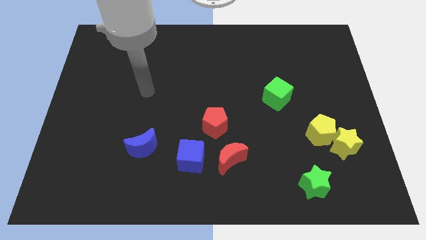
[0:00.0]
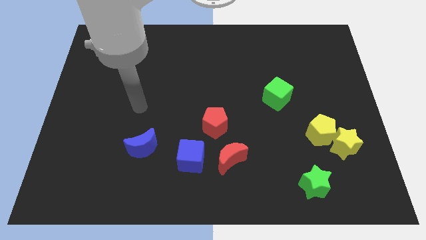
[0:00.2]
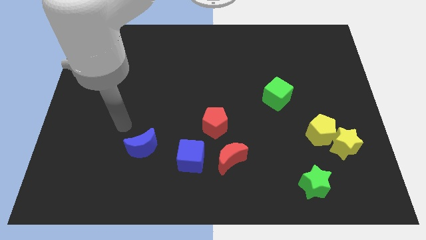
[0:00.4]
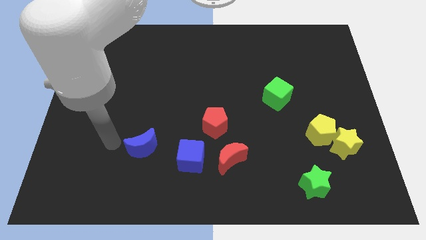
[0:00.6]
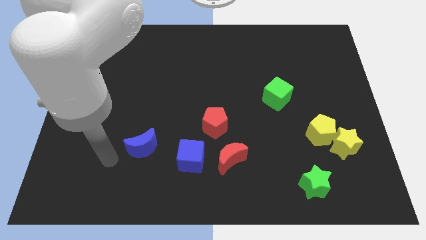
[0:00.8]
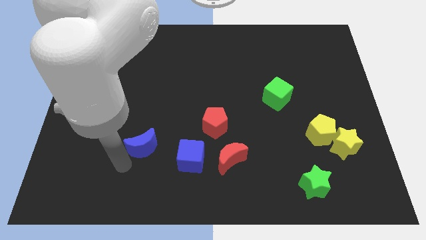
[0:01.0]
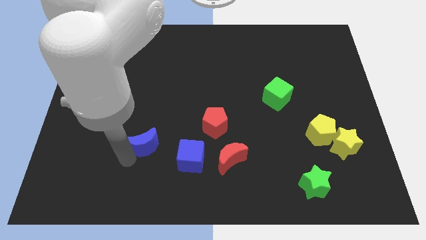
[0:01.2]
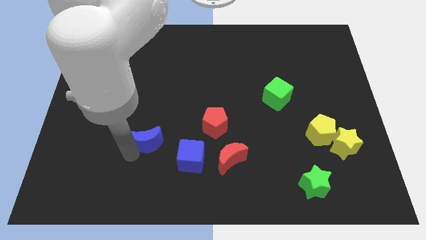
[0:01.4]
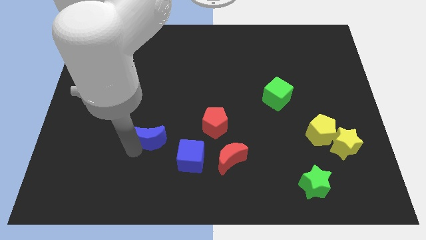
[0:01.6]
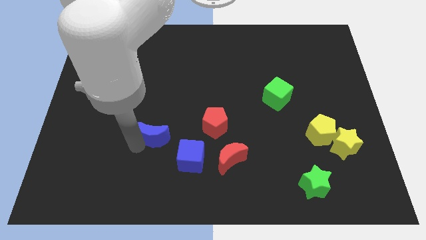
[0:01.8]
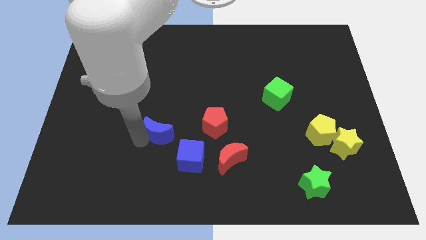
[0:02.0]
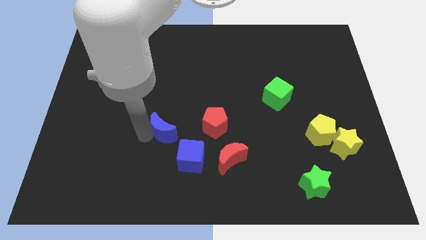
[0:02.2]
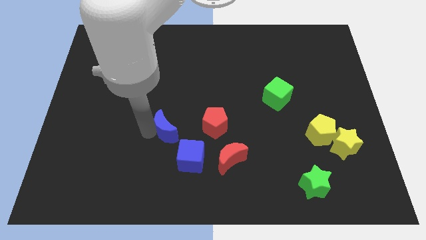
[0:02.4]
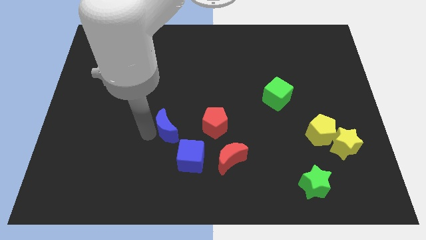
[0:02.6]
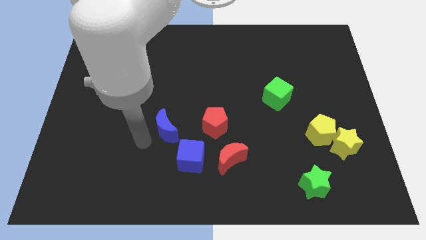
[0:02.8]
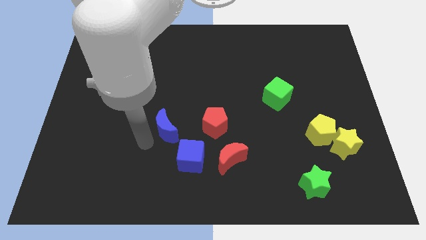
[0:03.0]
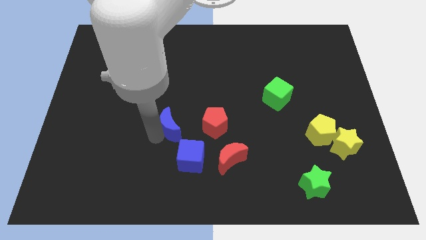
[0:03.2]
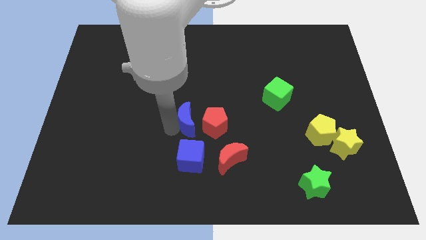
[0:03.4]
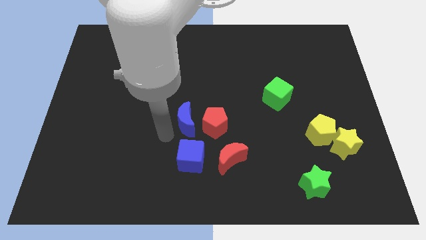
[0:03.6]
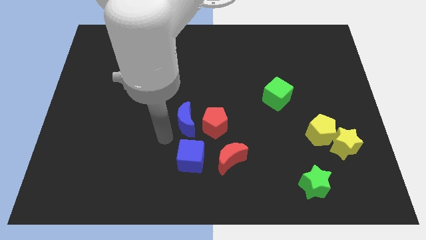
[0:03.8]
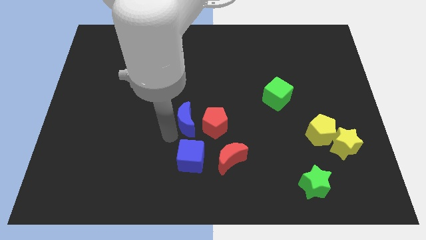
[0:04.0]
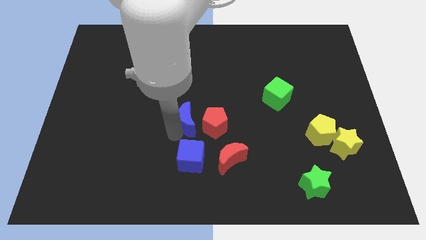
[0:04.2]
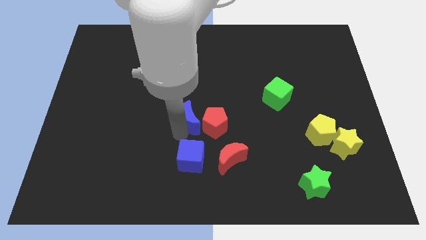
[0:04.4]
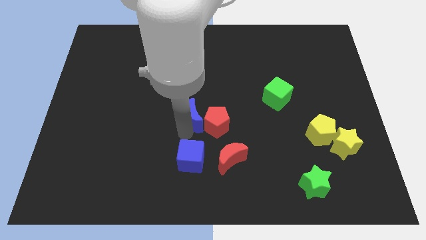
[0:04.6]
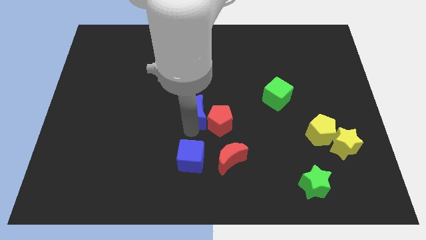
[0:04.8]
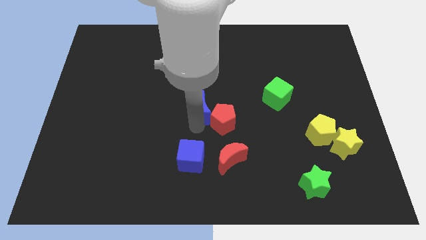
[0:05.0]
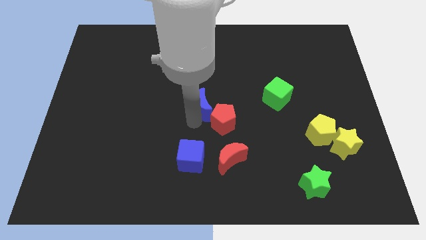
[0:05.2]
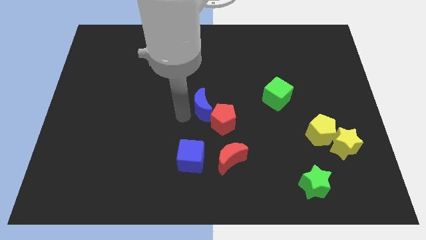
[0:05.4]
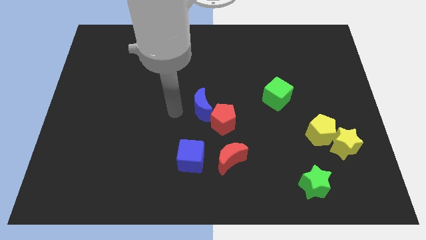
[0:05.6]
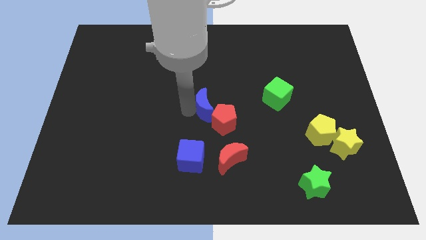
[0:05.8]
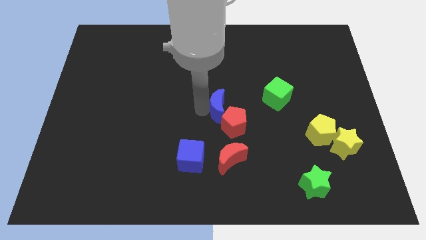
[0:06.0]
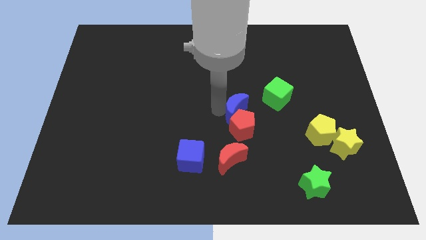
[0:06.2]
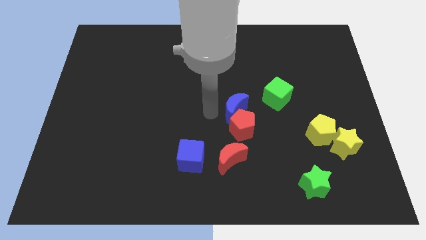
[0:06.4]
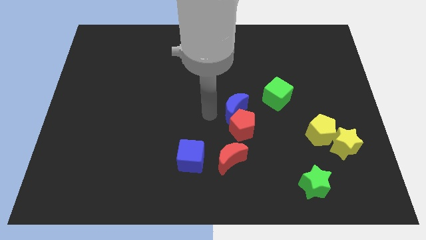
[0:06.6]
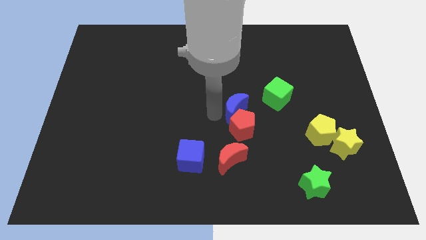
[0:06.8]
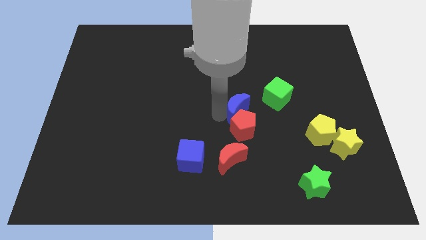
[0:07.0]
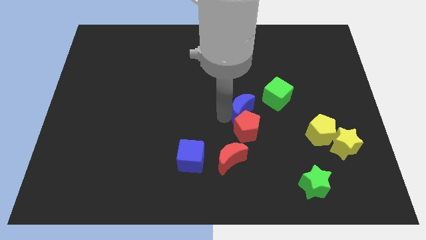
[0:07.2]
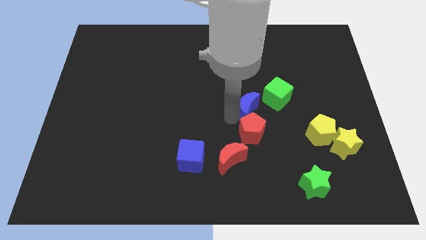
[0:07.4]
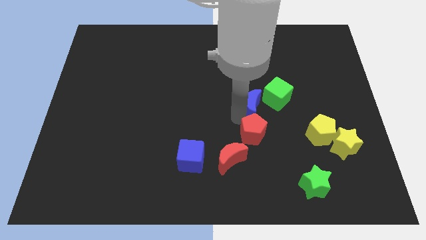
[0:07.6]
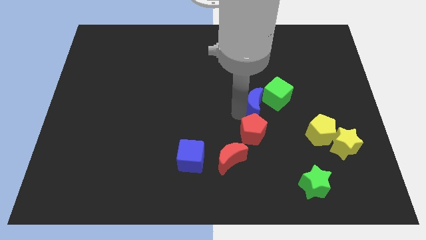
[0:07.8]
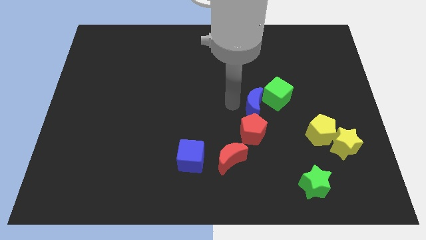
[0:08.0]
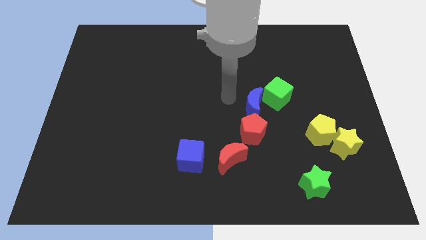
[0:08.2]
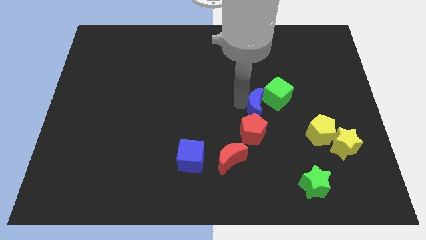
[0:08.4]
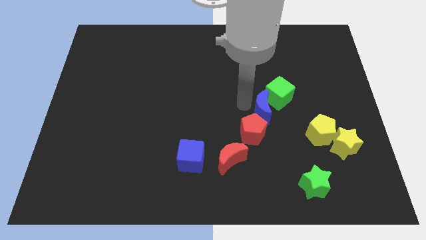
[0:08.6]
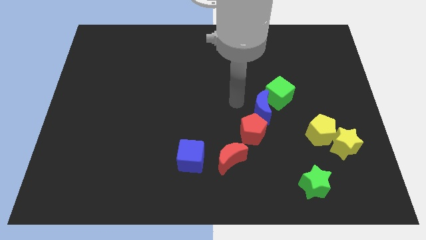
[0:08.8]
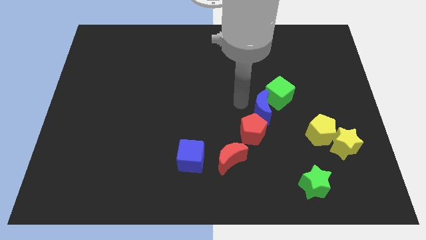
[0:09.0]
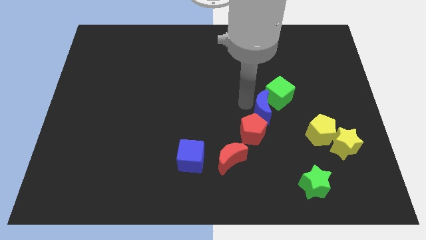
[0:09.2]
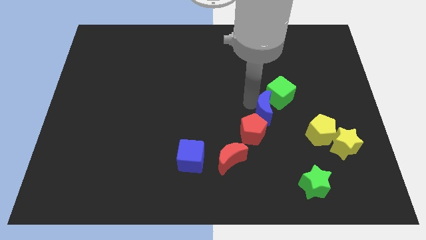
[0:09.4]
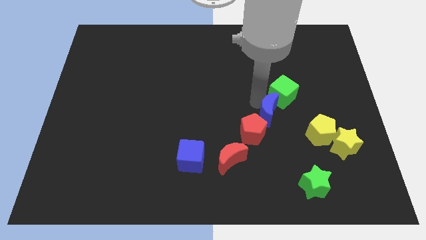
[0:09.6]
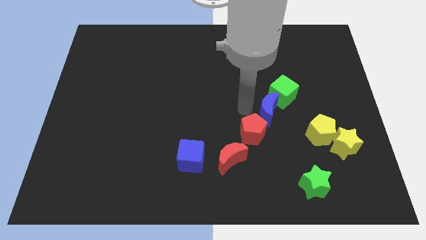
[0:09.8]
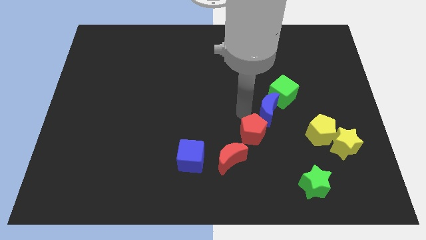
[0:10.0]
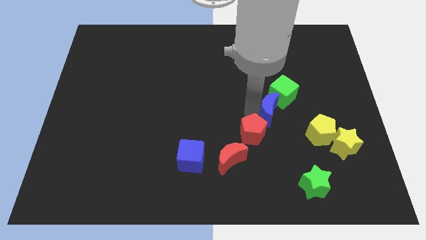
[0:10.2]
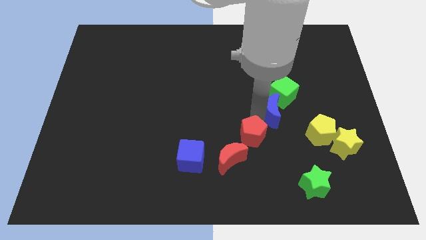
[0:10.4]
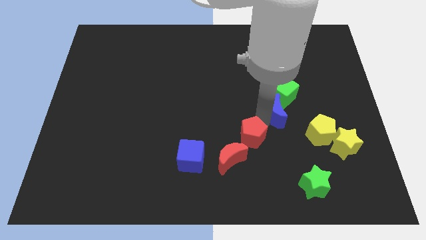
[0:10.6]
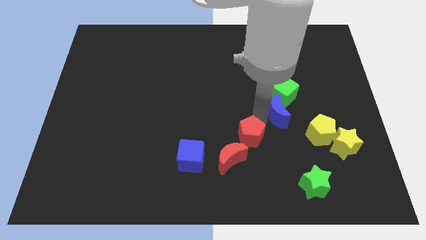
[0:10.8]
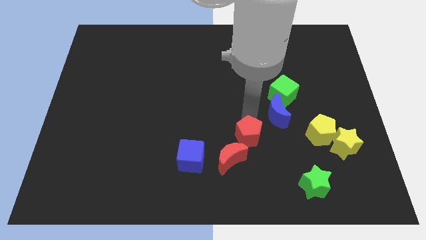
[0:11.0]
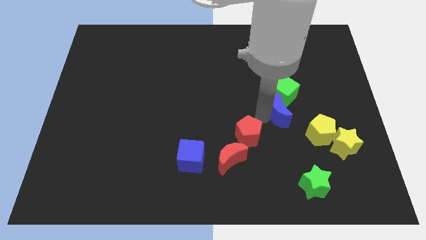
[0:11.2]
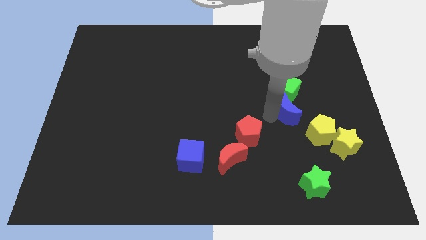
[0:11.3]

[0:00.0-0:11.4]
push the blue moon diagonally down and to the right of the green cube

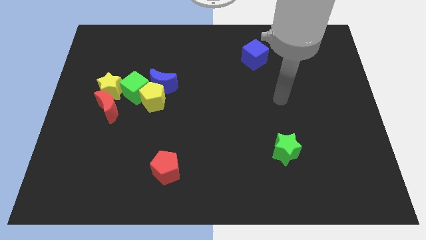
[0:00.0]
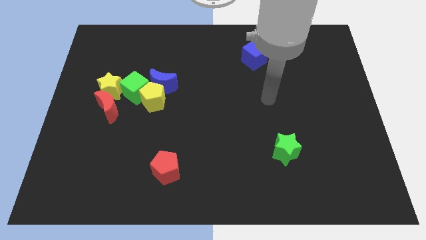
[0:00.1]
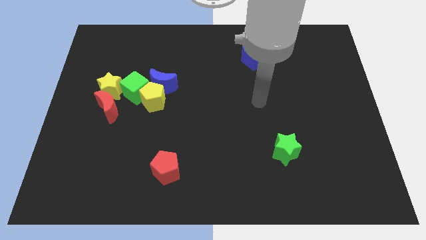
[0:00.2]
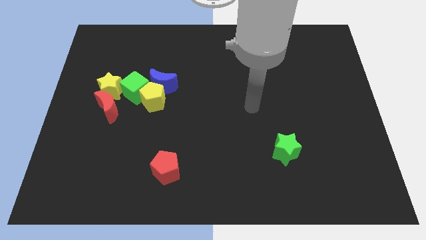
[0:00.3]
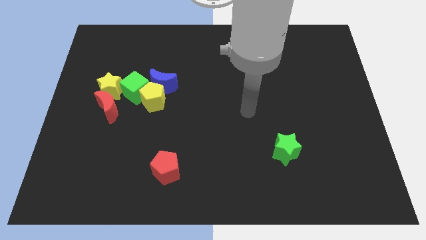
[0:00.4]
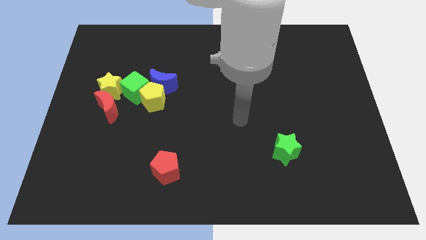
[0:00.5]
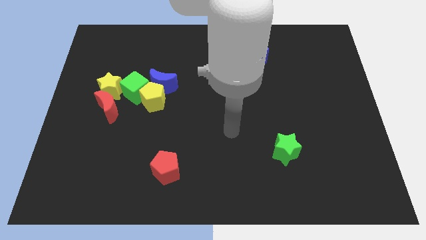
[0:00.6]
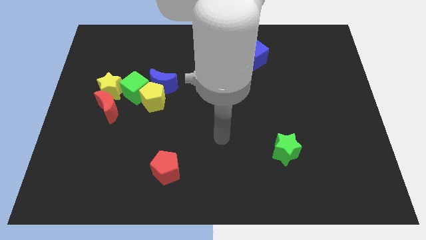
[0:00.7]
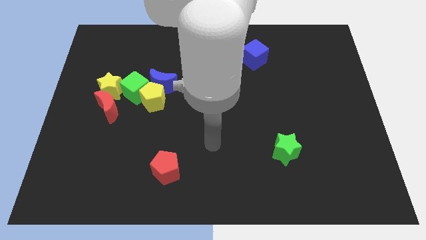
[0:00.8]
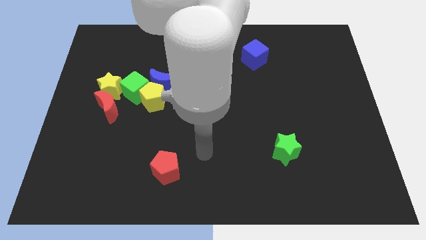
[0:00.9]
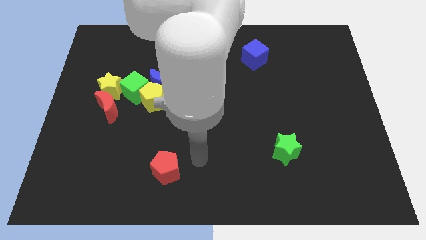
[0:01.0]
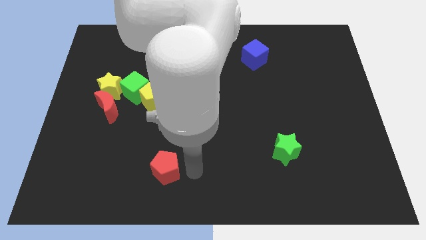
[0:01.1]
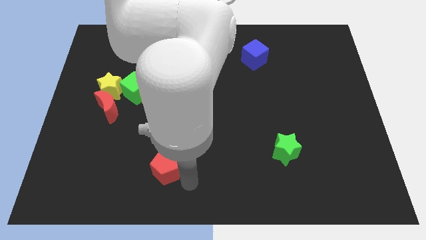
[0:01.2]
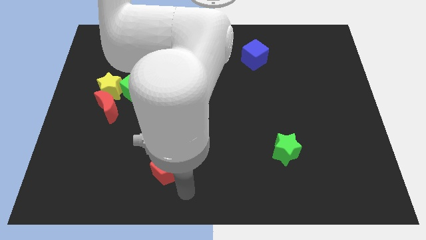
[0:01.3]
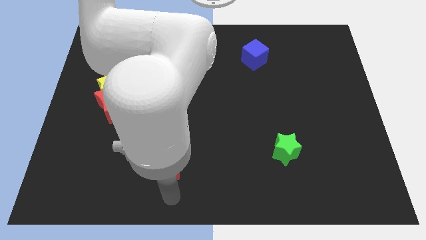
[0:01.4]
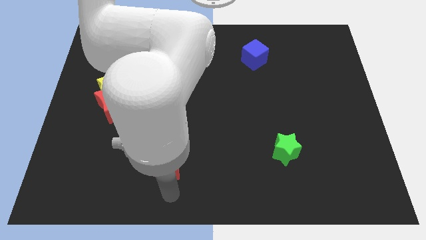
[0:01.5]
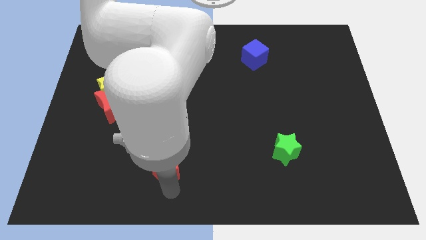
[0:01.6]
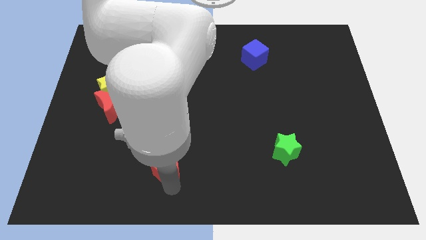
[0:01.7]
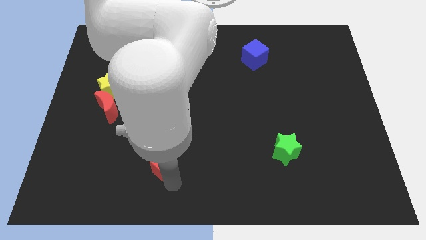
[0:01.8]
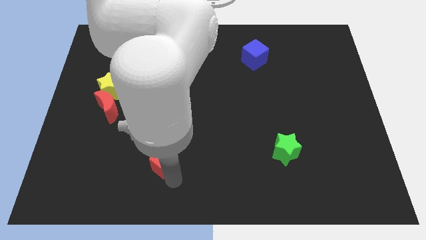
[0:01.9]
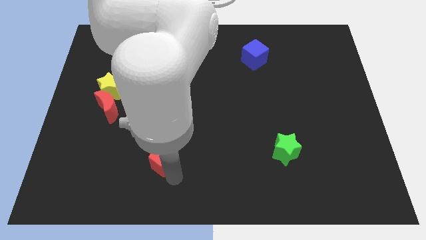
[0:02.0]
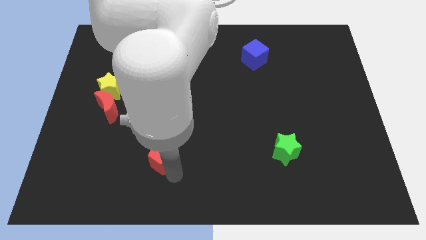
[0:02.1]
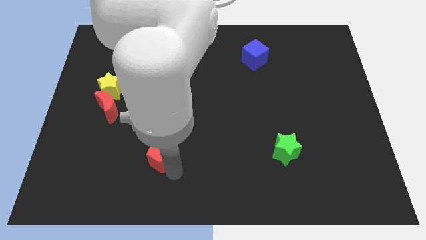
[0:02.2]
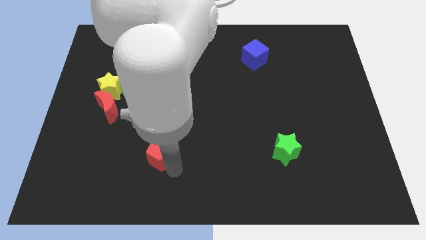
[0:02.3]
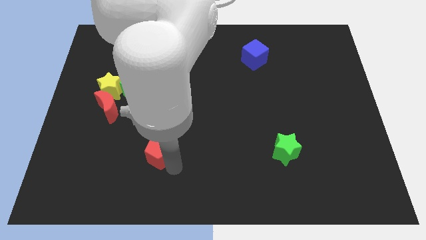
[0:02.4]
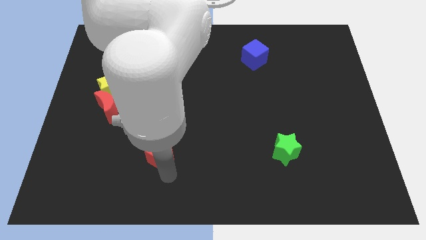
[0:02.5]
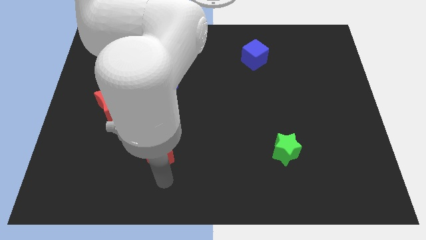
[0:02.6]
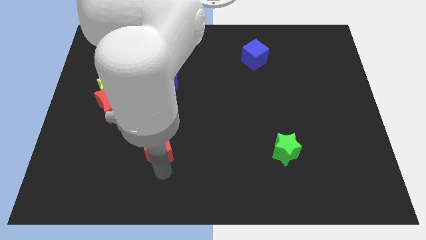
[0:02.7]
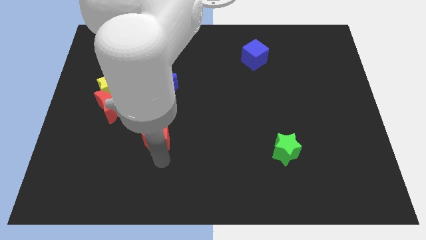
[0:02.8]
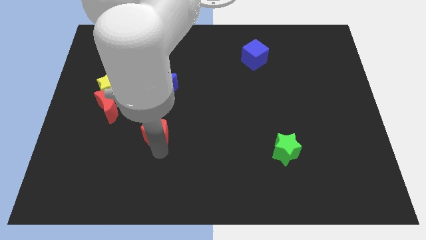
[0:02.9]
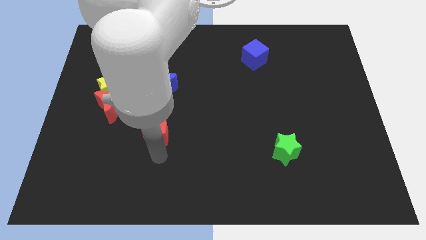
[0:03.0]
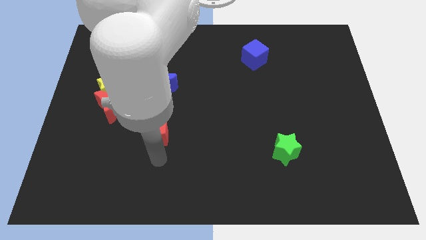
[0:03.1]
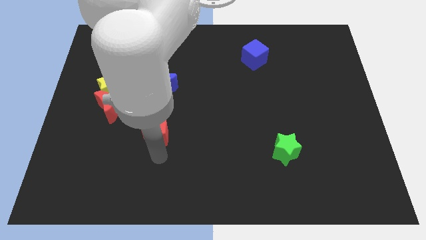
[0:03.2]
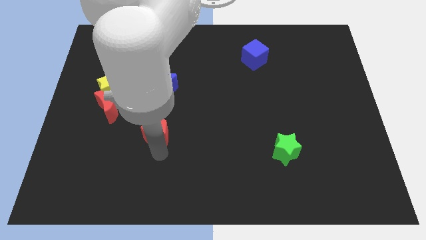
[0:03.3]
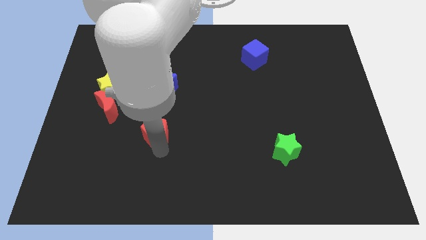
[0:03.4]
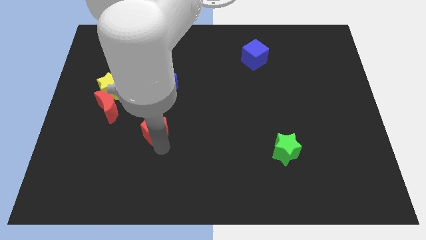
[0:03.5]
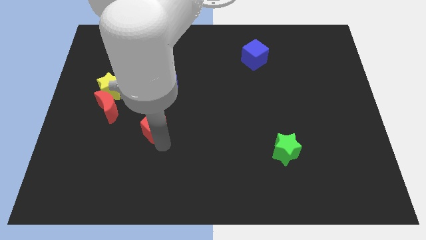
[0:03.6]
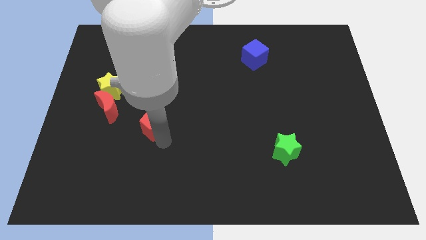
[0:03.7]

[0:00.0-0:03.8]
move the red pentagon to the bottom right of the green cube
